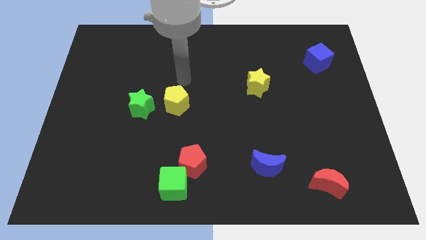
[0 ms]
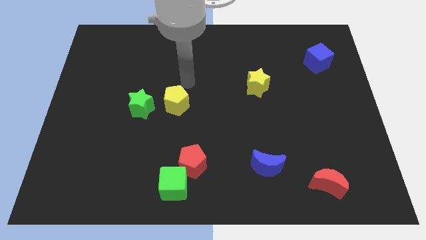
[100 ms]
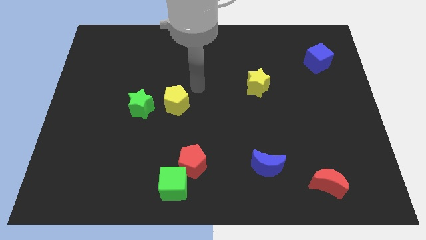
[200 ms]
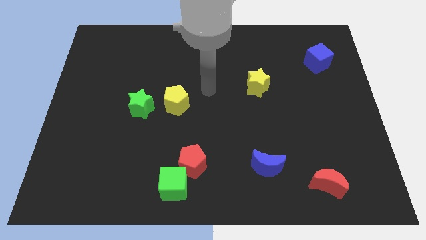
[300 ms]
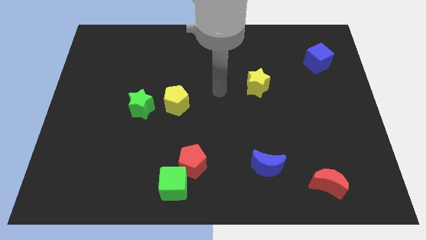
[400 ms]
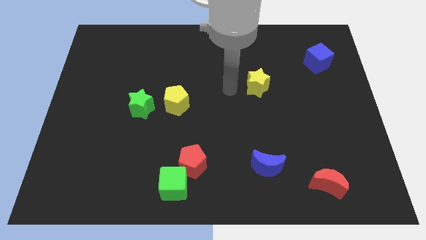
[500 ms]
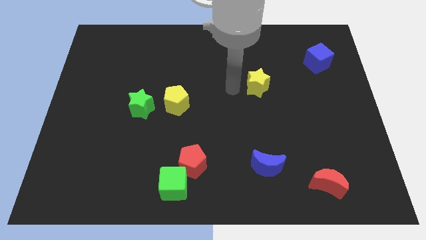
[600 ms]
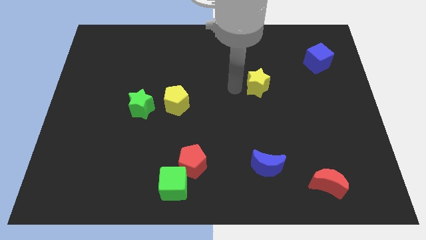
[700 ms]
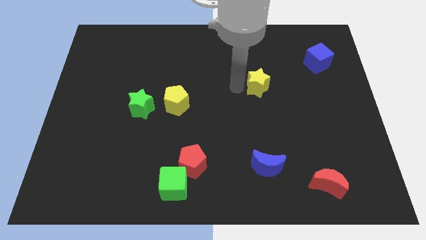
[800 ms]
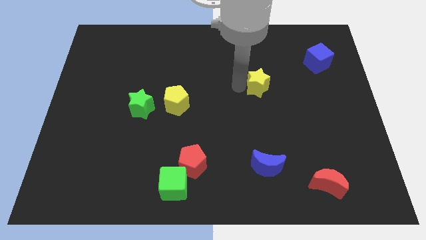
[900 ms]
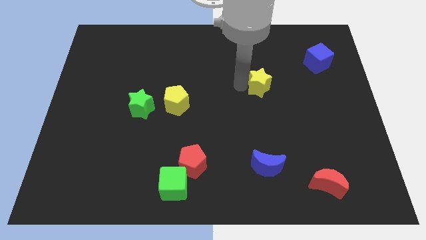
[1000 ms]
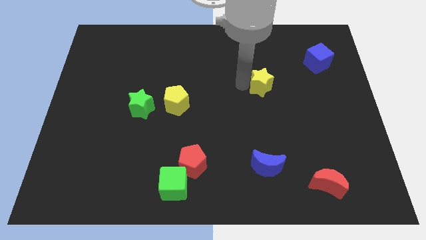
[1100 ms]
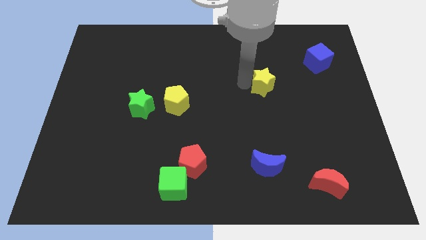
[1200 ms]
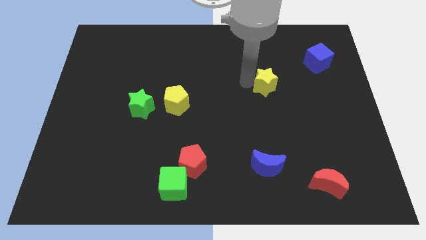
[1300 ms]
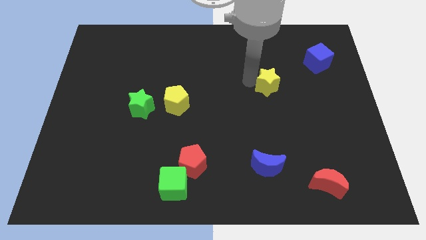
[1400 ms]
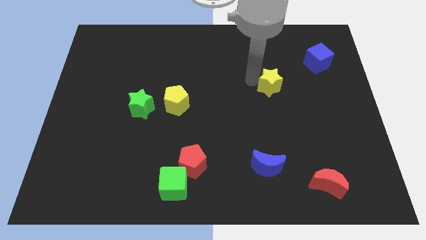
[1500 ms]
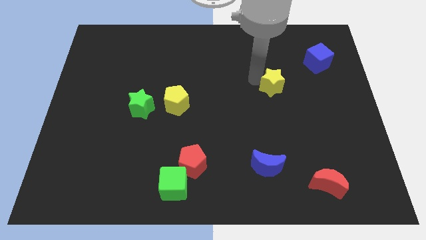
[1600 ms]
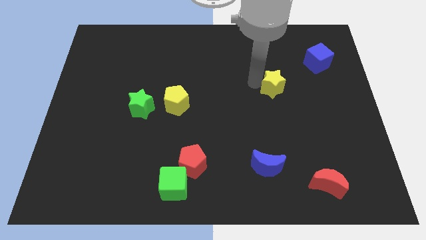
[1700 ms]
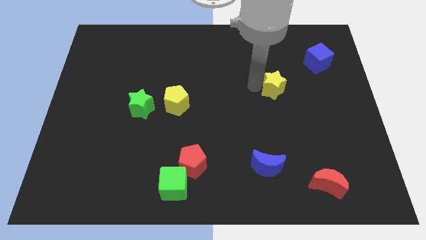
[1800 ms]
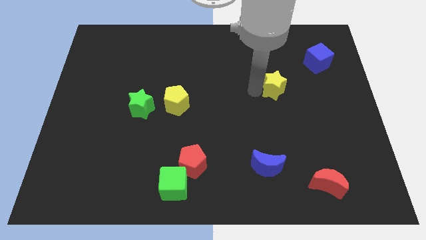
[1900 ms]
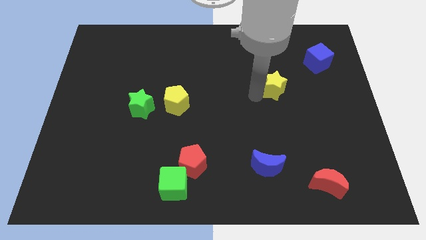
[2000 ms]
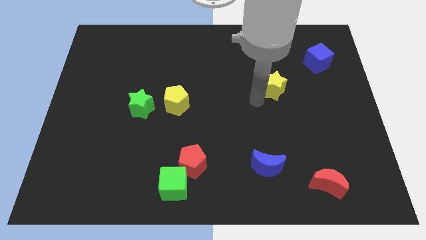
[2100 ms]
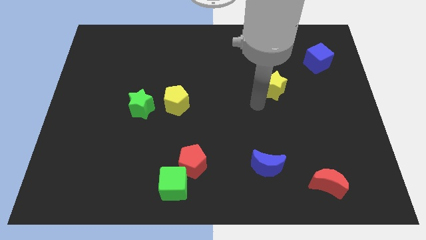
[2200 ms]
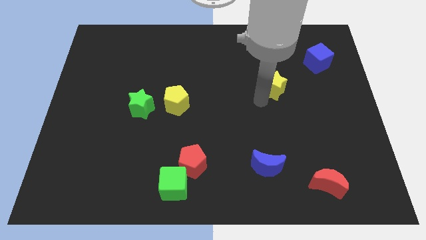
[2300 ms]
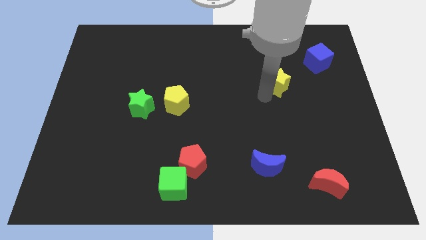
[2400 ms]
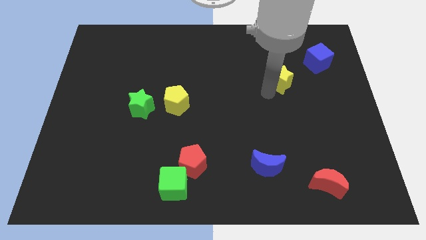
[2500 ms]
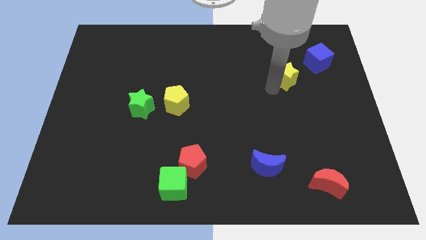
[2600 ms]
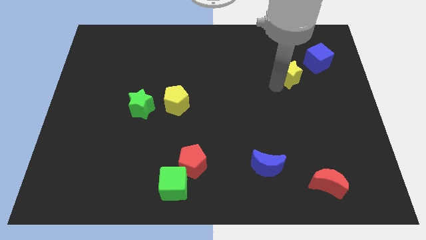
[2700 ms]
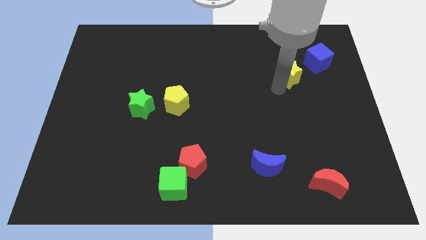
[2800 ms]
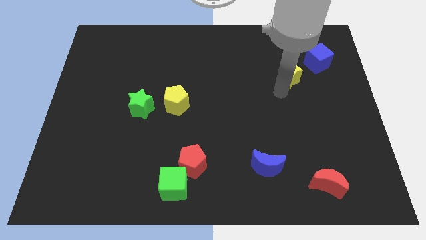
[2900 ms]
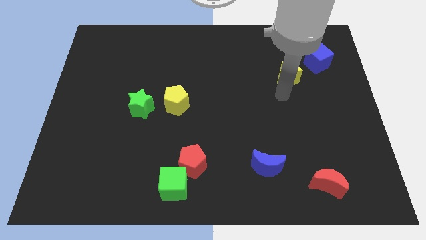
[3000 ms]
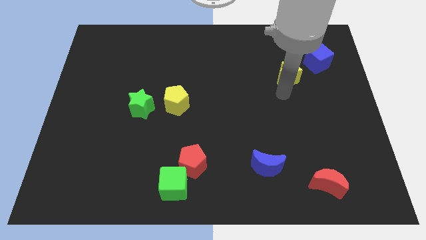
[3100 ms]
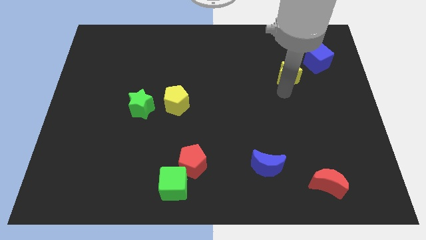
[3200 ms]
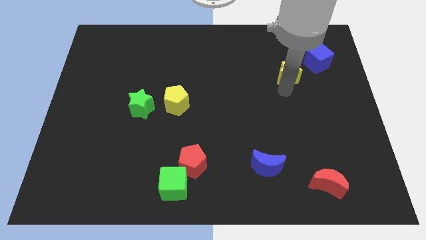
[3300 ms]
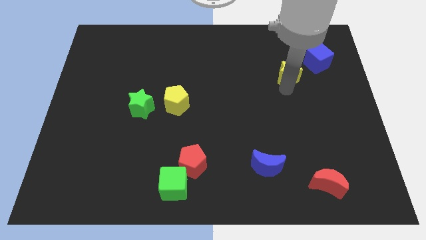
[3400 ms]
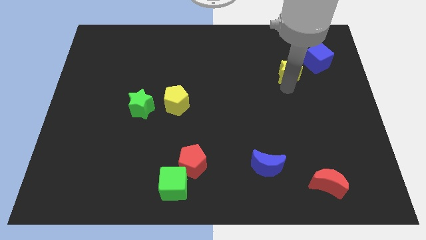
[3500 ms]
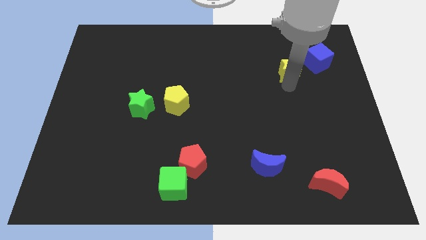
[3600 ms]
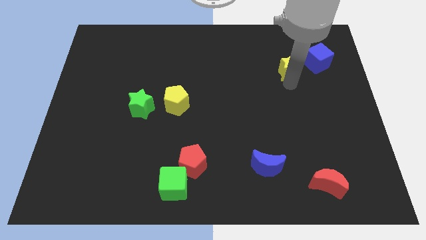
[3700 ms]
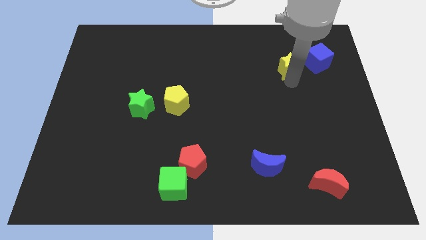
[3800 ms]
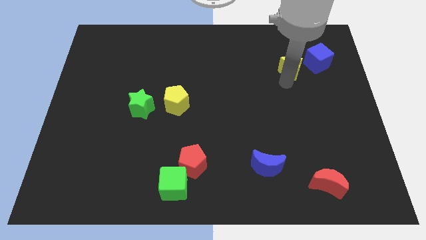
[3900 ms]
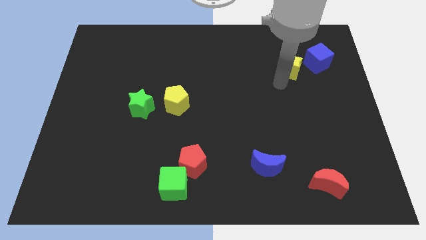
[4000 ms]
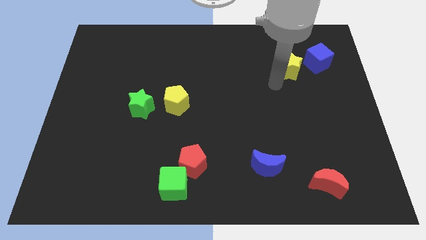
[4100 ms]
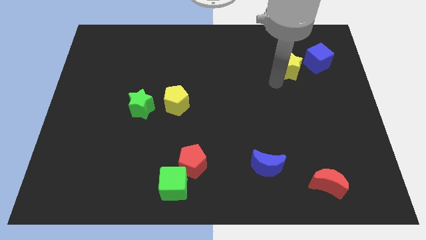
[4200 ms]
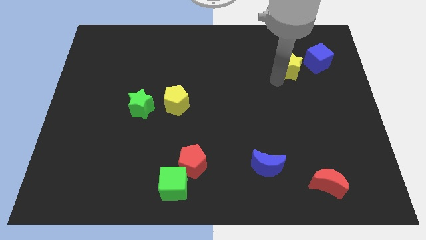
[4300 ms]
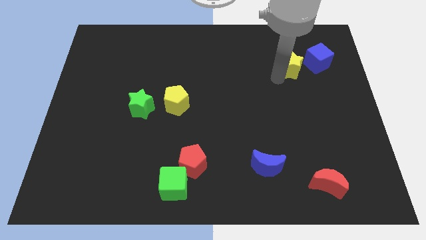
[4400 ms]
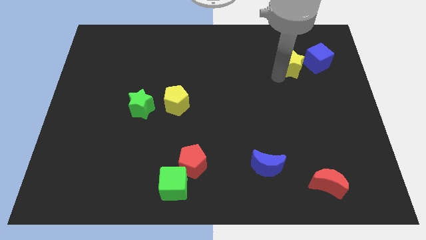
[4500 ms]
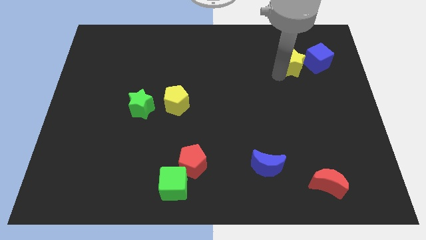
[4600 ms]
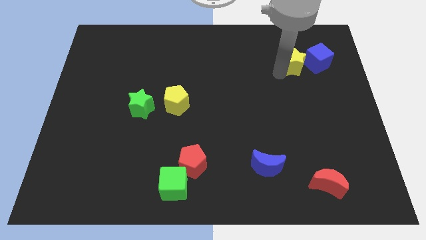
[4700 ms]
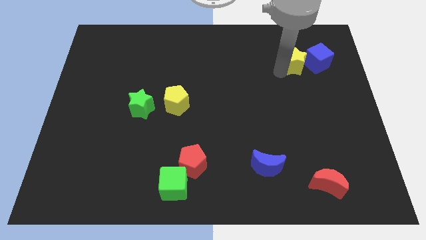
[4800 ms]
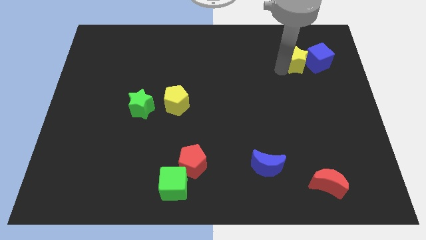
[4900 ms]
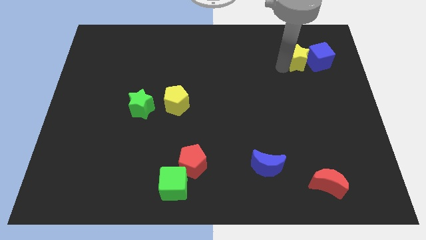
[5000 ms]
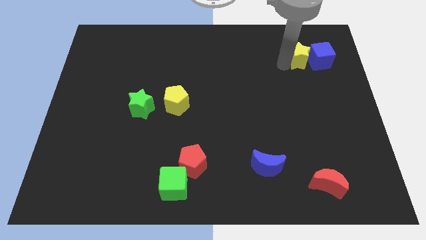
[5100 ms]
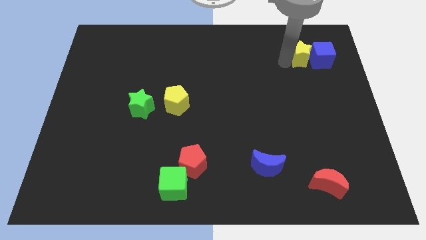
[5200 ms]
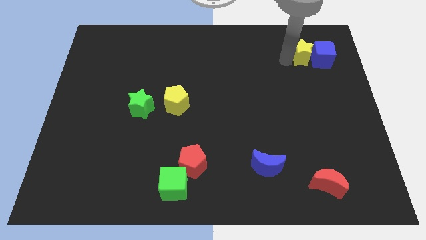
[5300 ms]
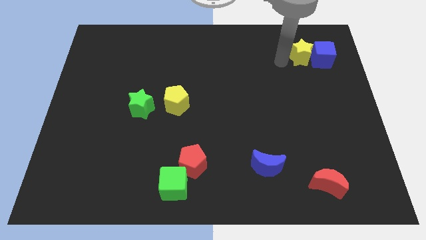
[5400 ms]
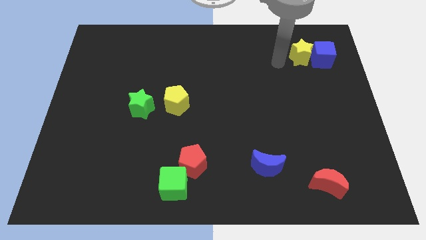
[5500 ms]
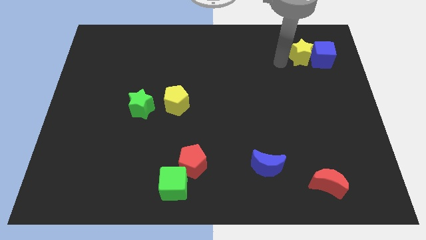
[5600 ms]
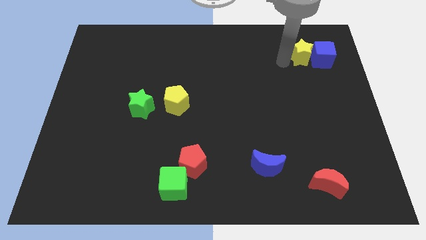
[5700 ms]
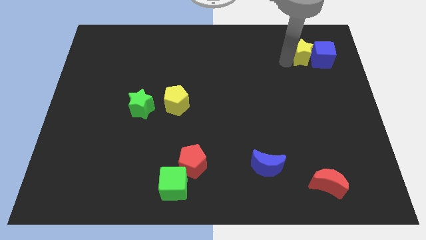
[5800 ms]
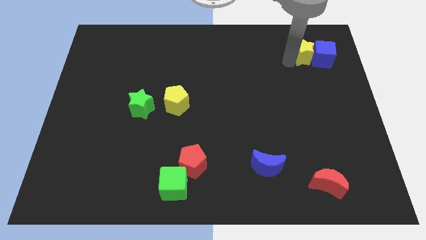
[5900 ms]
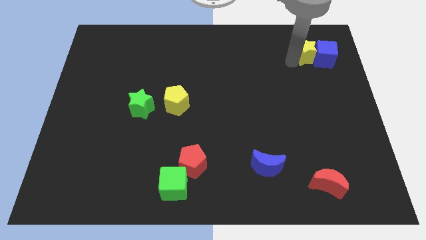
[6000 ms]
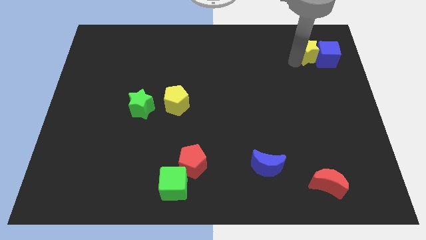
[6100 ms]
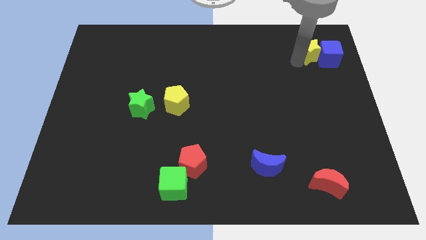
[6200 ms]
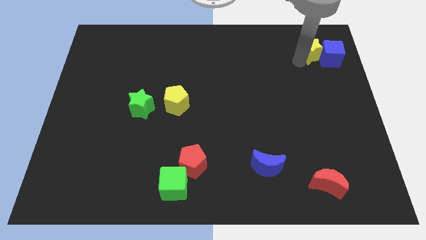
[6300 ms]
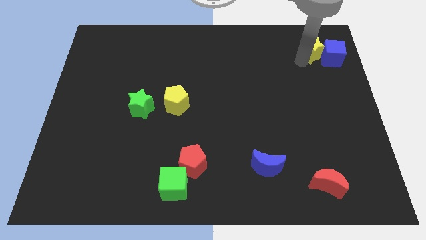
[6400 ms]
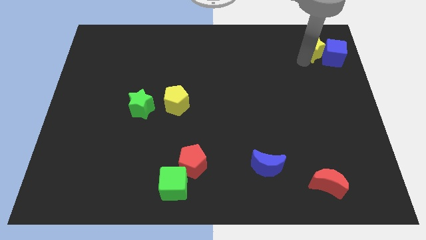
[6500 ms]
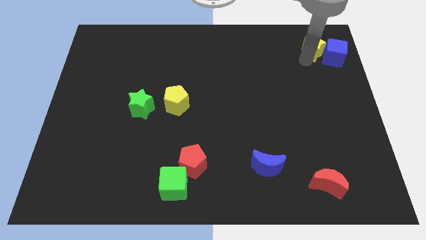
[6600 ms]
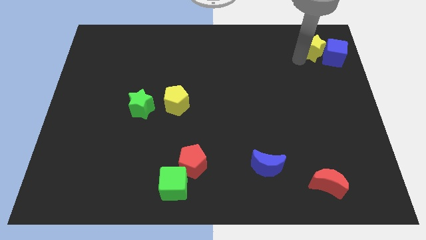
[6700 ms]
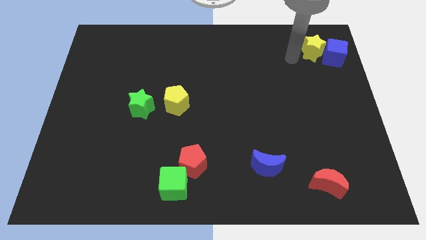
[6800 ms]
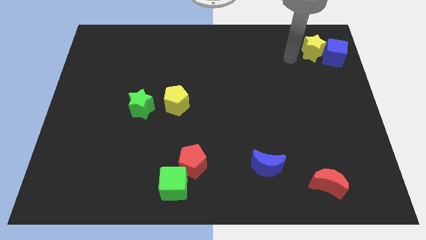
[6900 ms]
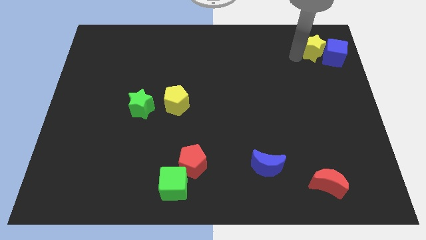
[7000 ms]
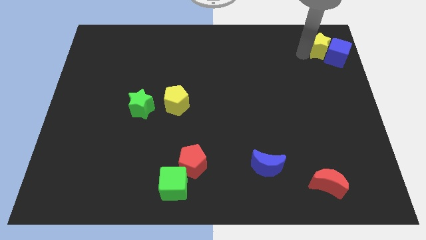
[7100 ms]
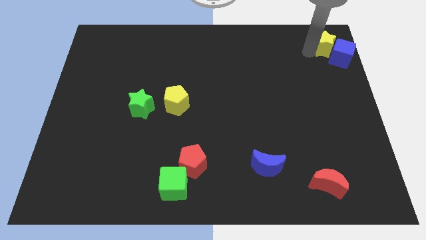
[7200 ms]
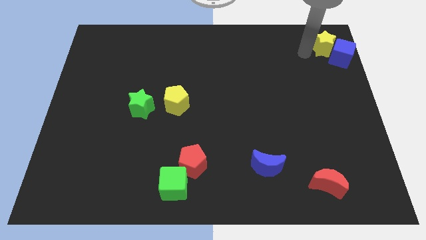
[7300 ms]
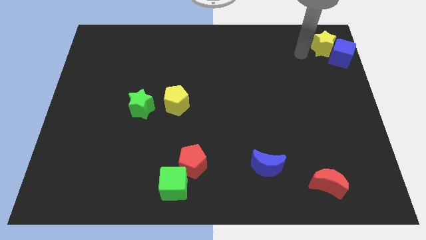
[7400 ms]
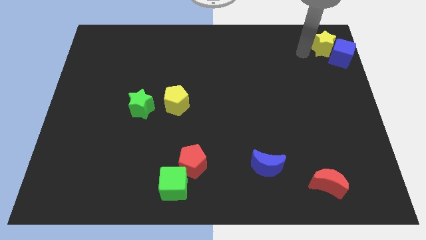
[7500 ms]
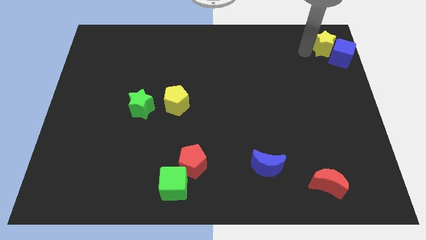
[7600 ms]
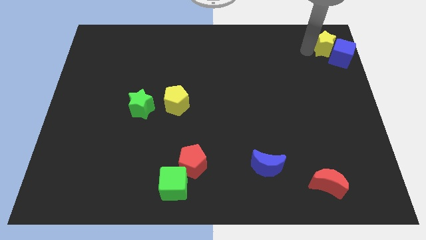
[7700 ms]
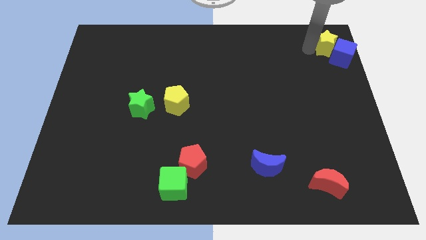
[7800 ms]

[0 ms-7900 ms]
push the yellow star to the upper right corner

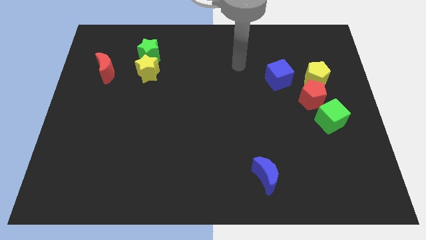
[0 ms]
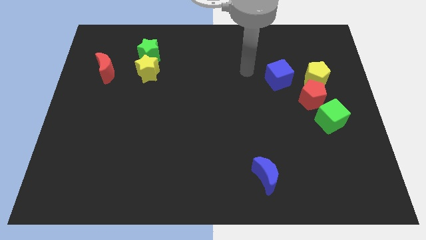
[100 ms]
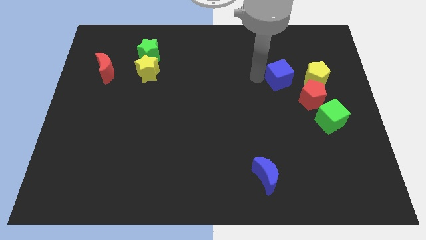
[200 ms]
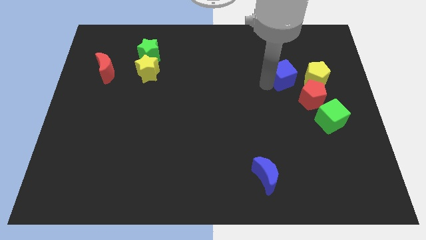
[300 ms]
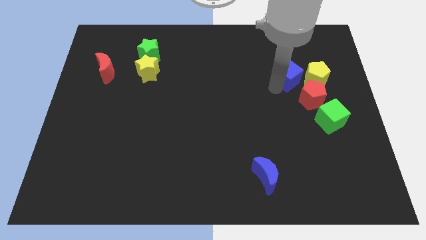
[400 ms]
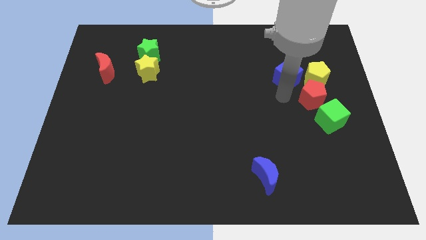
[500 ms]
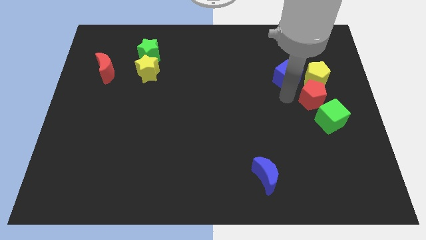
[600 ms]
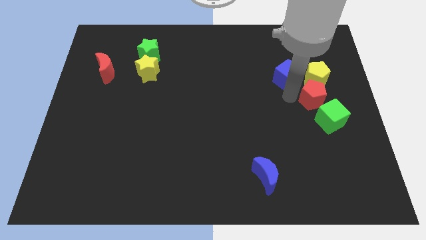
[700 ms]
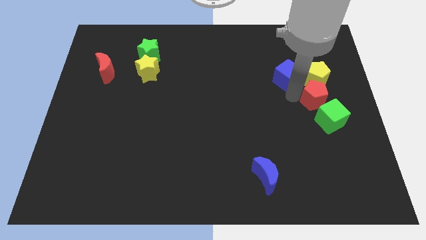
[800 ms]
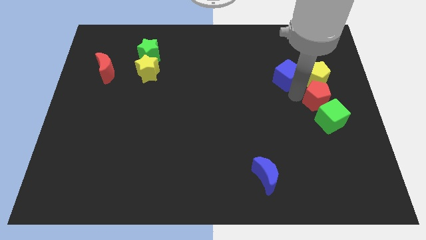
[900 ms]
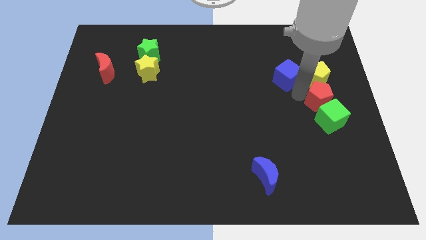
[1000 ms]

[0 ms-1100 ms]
slide the red pentagon to the right side of the board
